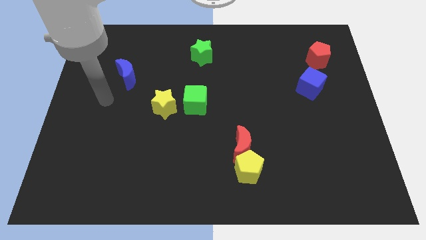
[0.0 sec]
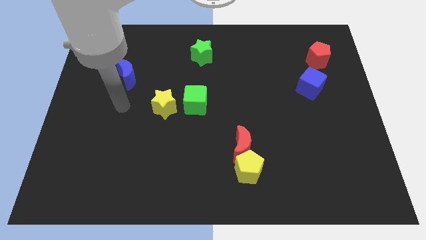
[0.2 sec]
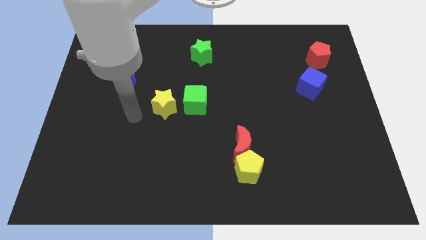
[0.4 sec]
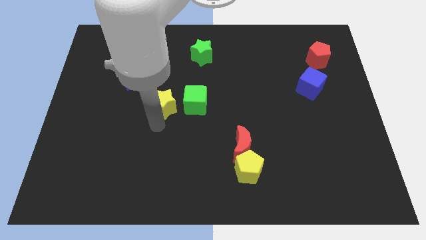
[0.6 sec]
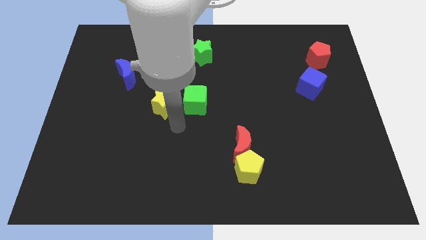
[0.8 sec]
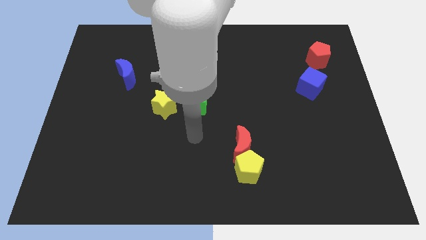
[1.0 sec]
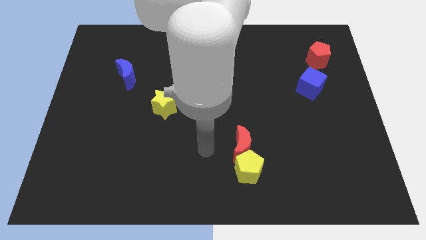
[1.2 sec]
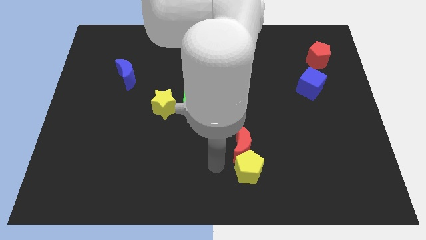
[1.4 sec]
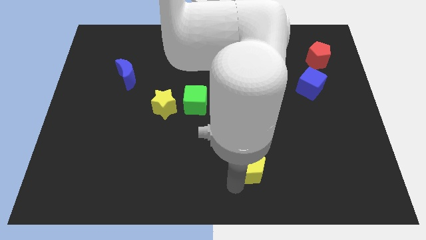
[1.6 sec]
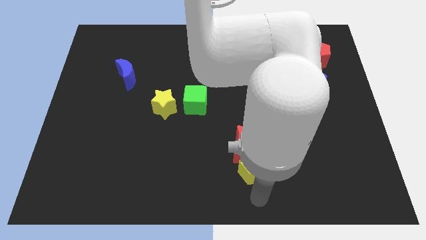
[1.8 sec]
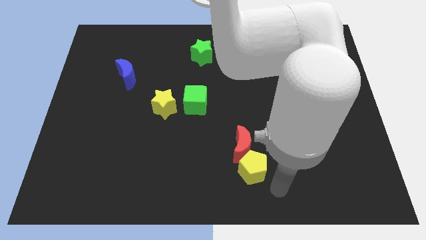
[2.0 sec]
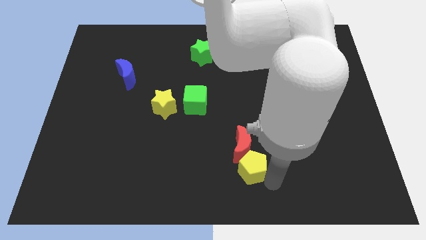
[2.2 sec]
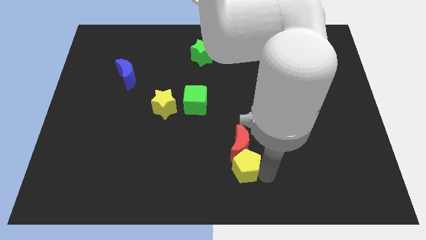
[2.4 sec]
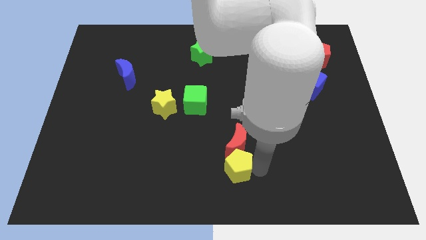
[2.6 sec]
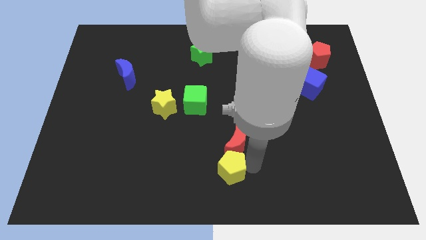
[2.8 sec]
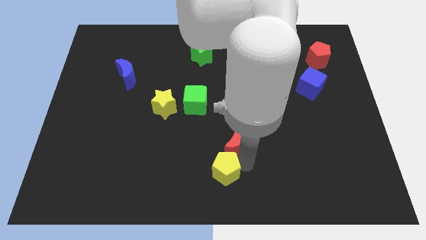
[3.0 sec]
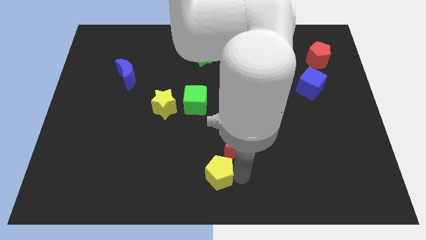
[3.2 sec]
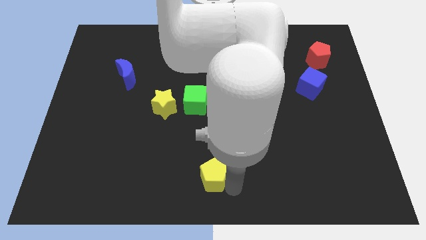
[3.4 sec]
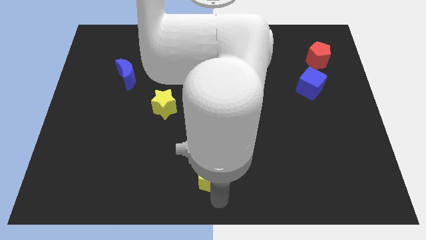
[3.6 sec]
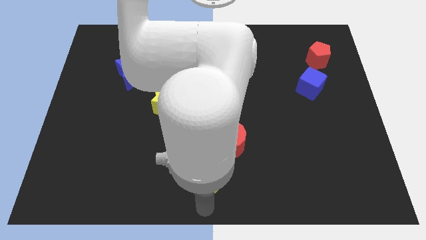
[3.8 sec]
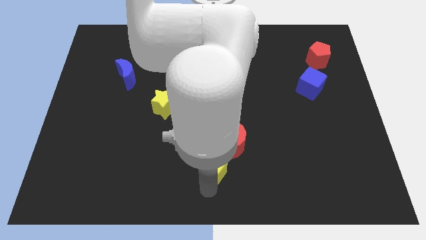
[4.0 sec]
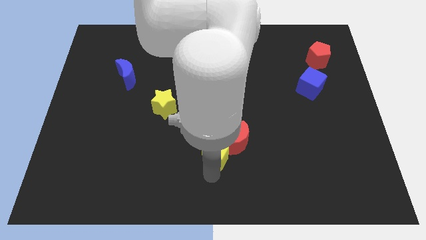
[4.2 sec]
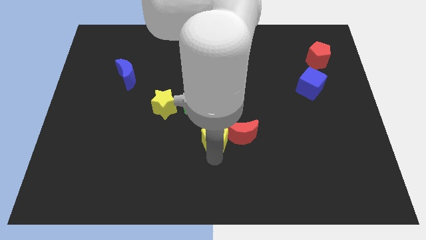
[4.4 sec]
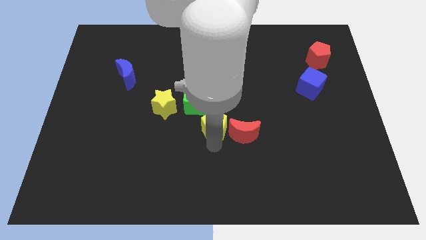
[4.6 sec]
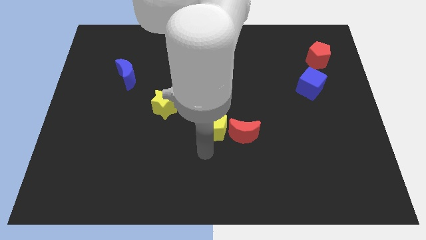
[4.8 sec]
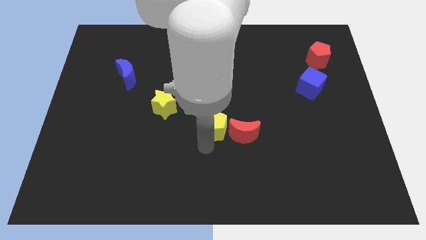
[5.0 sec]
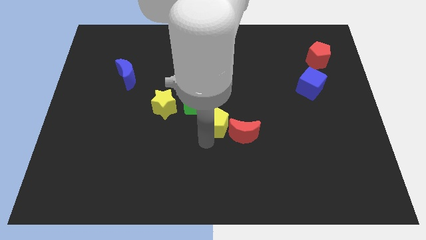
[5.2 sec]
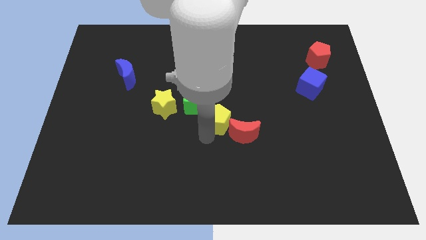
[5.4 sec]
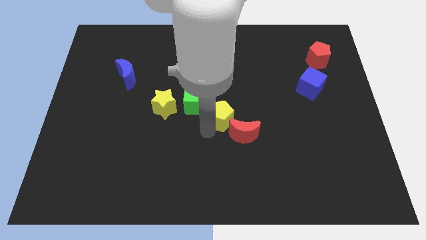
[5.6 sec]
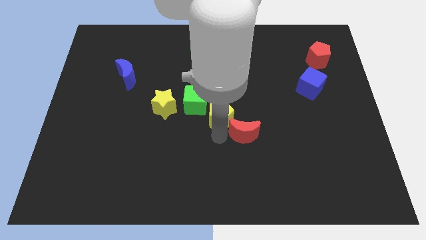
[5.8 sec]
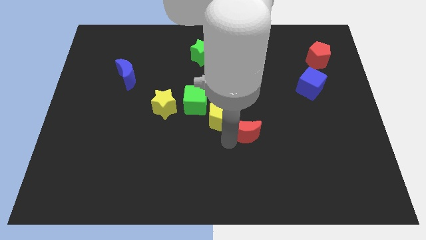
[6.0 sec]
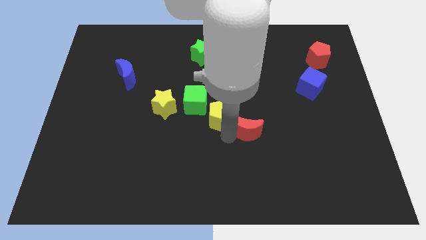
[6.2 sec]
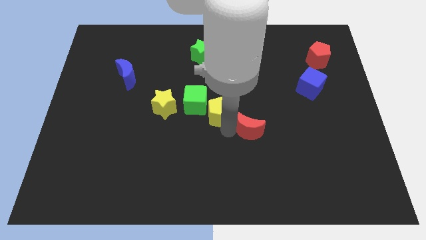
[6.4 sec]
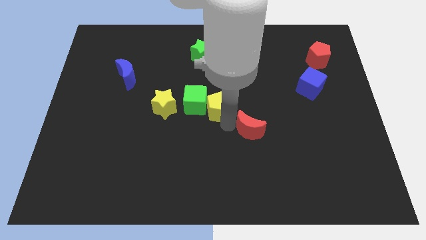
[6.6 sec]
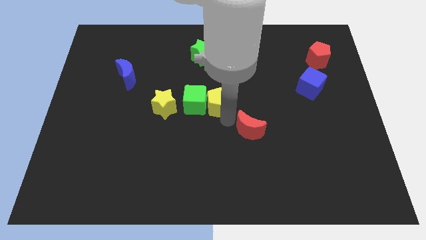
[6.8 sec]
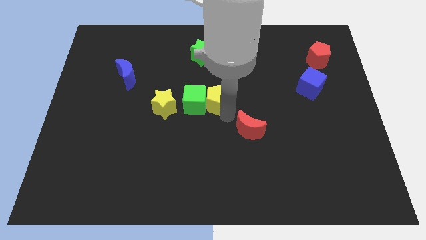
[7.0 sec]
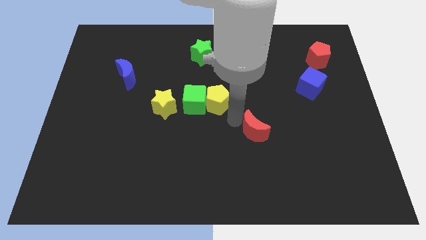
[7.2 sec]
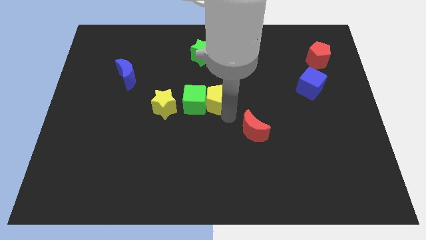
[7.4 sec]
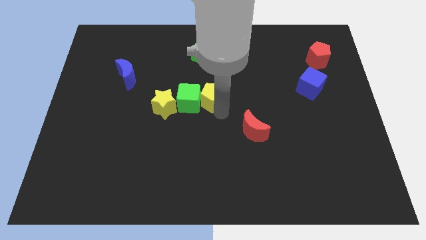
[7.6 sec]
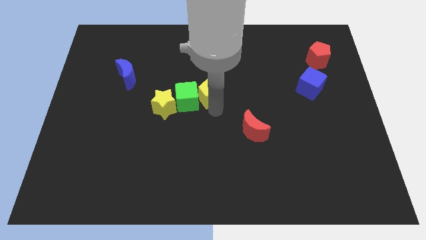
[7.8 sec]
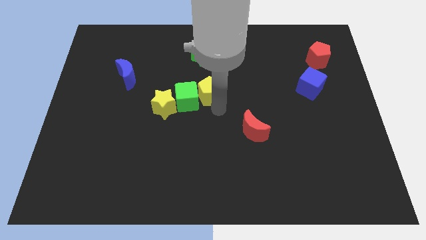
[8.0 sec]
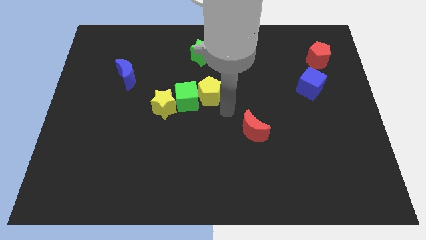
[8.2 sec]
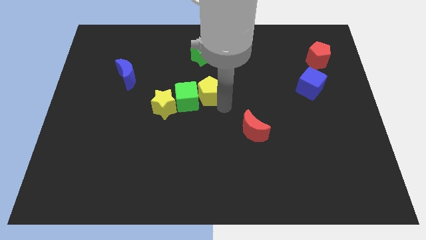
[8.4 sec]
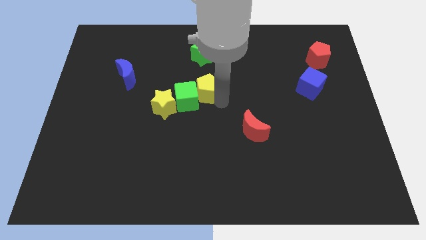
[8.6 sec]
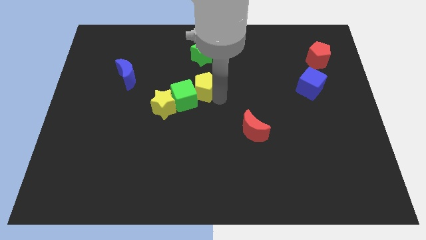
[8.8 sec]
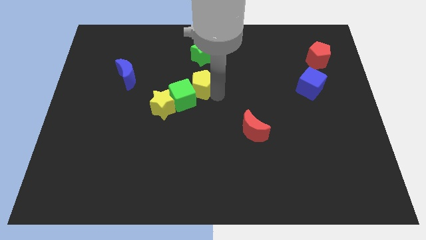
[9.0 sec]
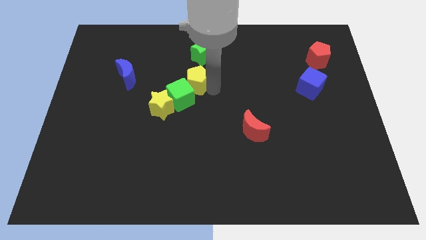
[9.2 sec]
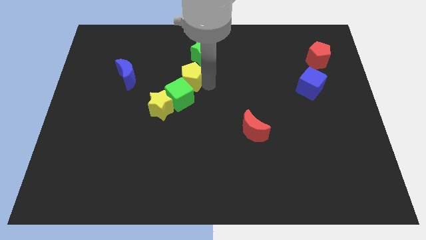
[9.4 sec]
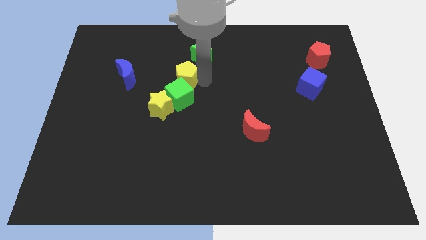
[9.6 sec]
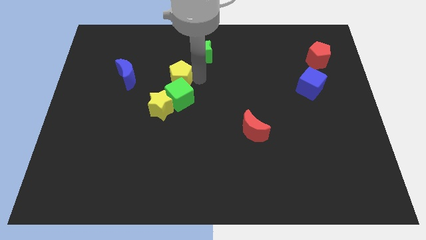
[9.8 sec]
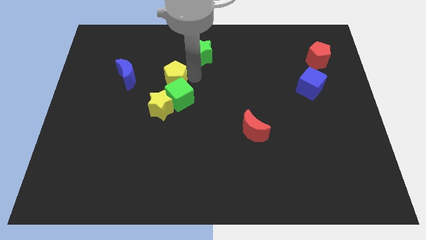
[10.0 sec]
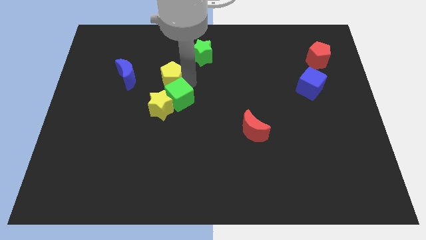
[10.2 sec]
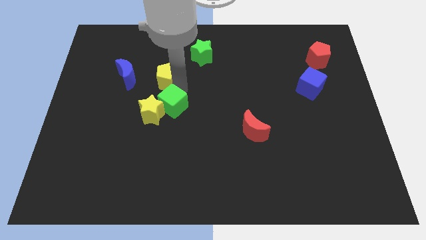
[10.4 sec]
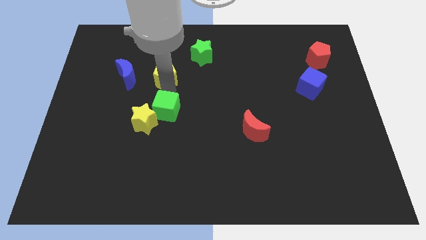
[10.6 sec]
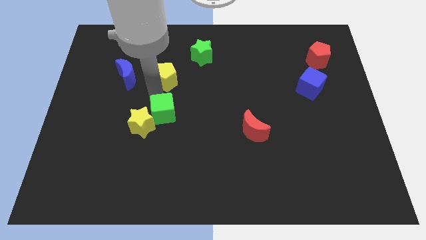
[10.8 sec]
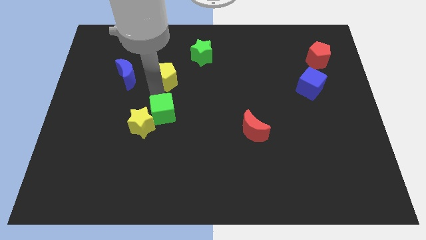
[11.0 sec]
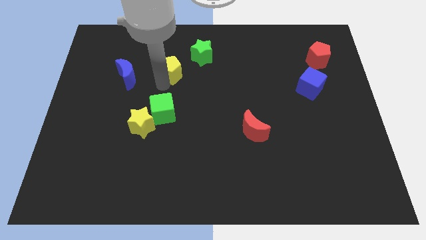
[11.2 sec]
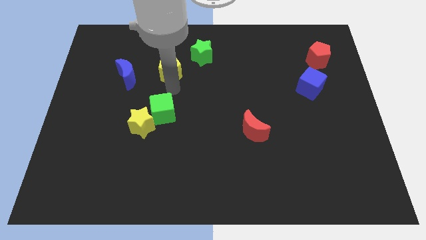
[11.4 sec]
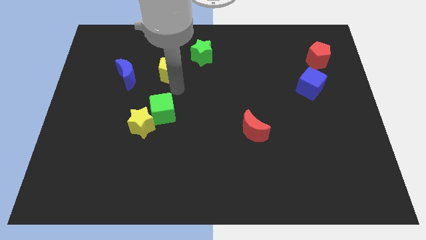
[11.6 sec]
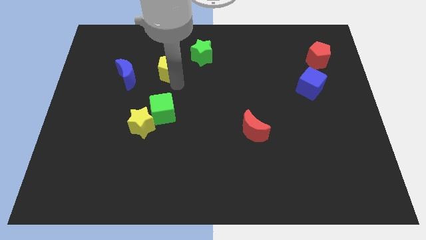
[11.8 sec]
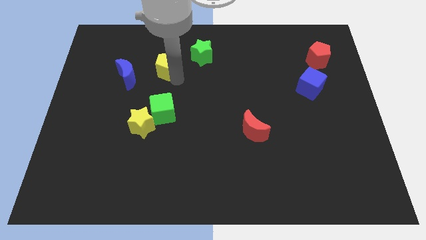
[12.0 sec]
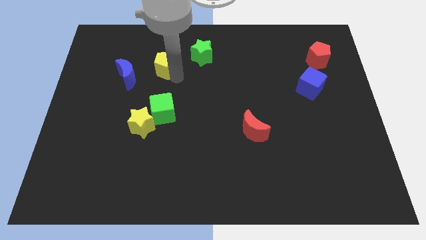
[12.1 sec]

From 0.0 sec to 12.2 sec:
put the yellow pentagon to the left of the green star

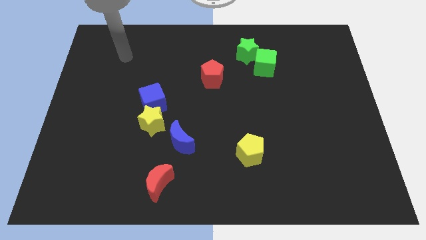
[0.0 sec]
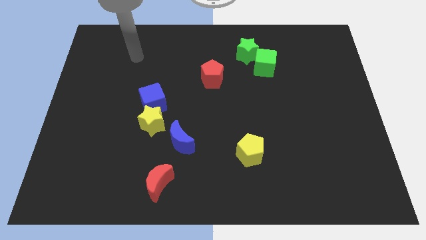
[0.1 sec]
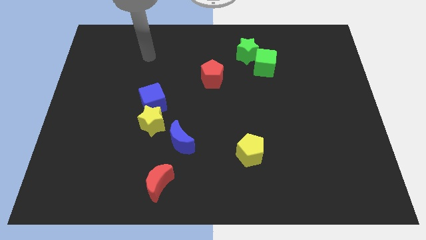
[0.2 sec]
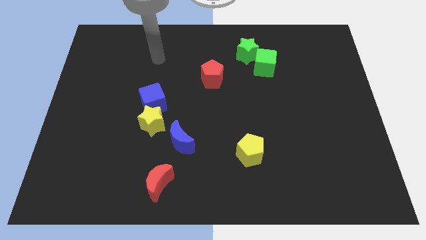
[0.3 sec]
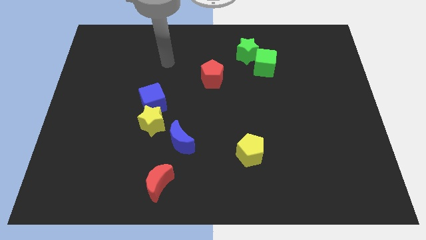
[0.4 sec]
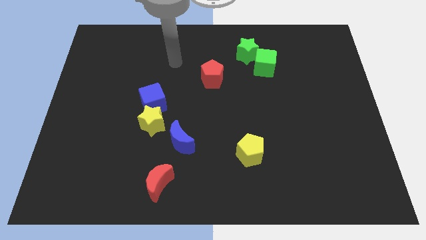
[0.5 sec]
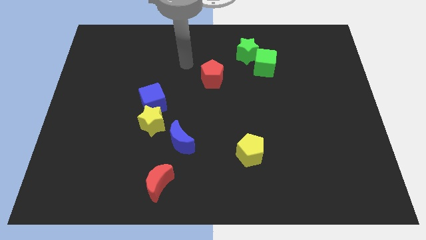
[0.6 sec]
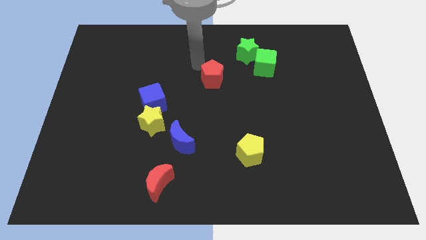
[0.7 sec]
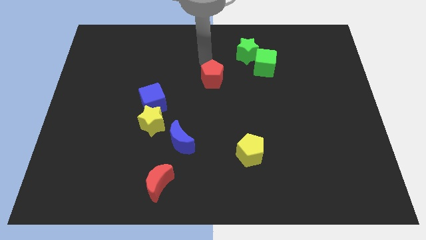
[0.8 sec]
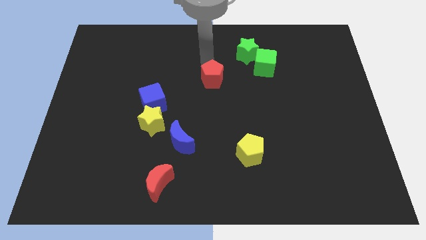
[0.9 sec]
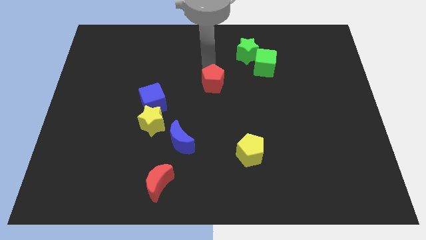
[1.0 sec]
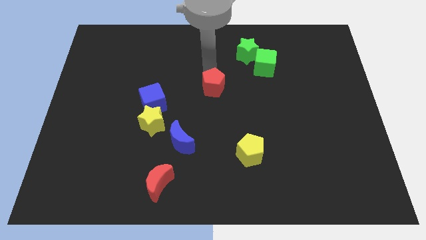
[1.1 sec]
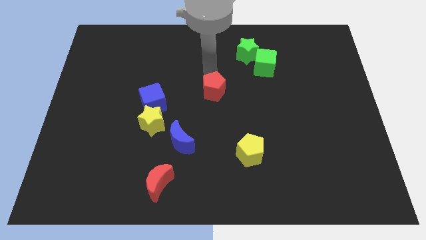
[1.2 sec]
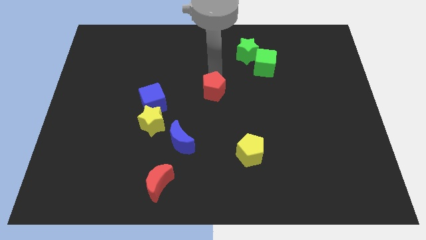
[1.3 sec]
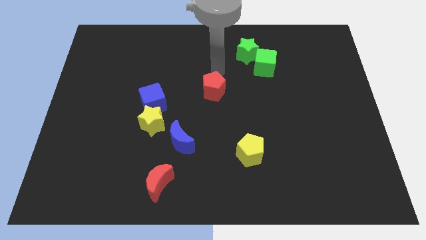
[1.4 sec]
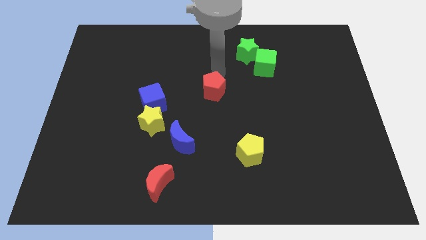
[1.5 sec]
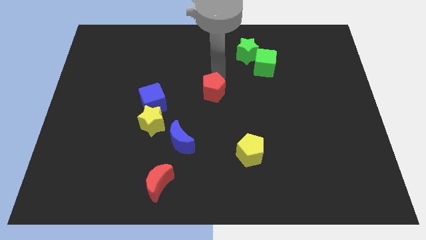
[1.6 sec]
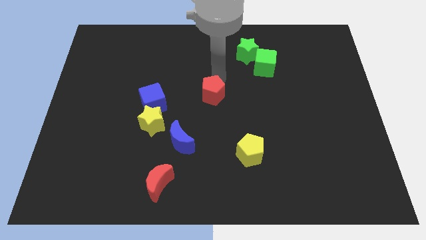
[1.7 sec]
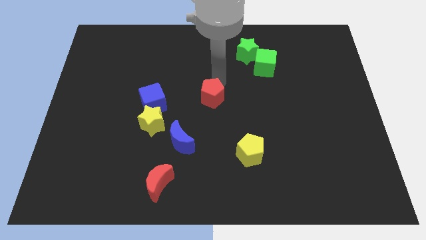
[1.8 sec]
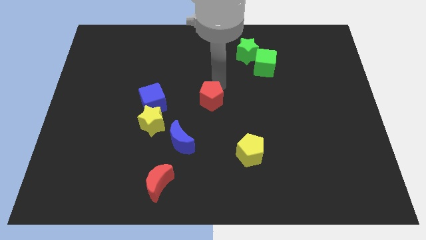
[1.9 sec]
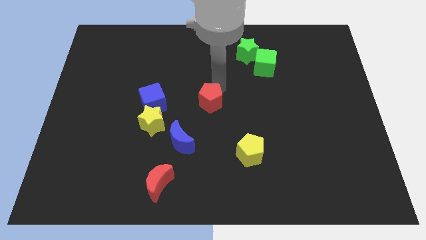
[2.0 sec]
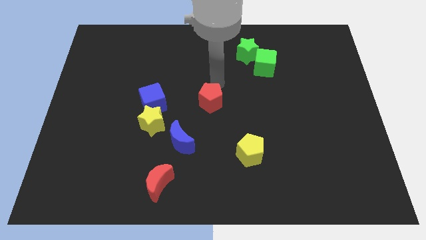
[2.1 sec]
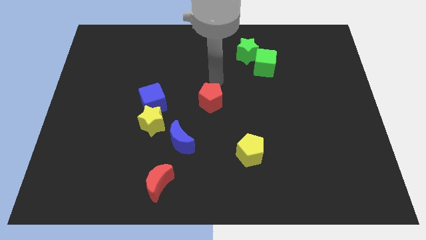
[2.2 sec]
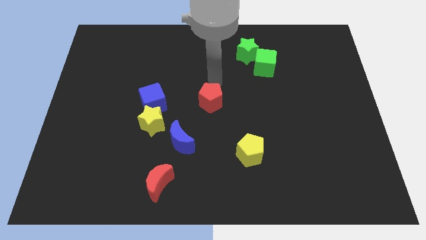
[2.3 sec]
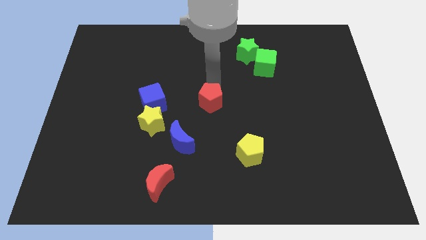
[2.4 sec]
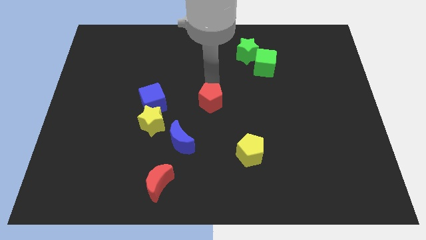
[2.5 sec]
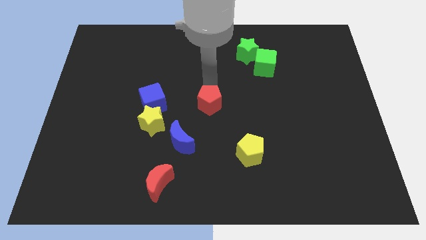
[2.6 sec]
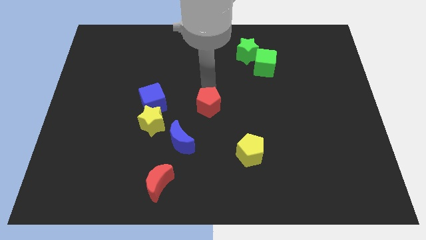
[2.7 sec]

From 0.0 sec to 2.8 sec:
put the red pentagon to the top right side of the blue moon
